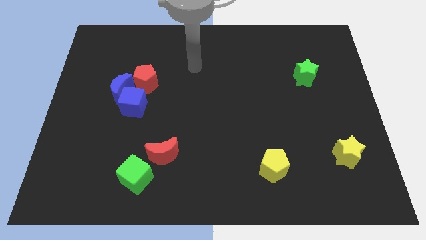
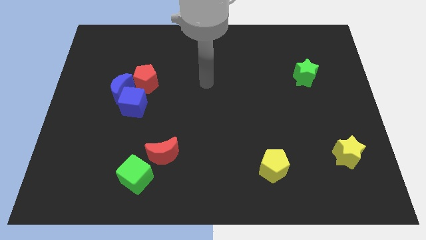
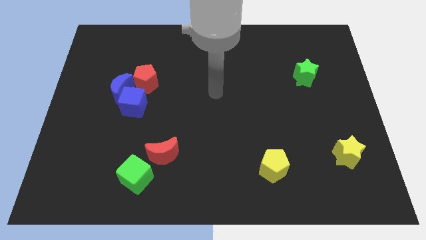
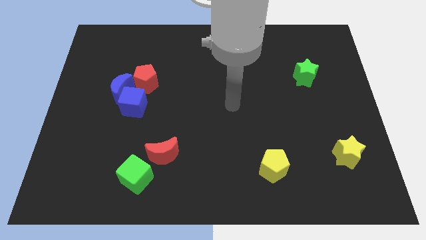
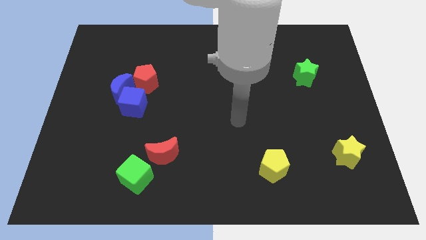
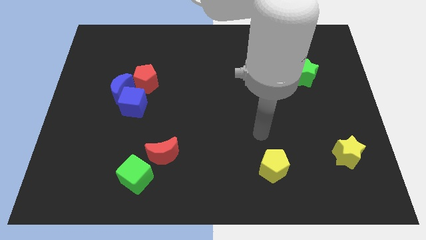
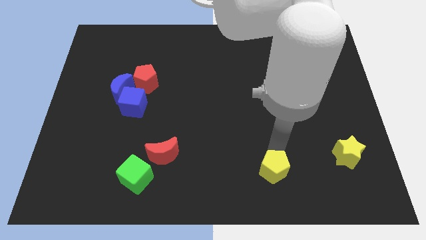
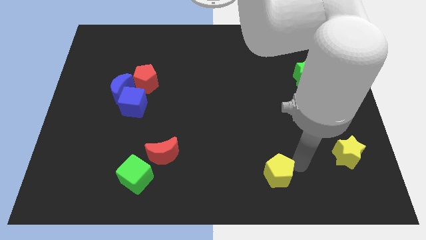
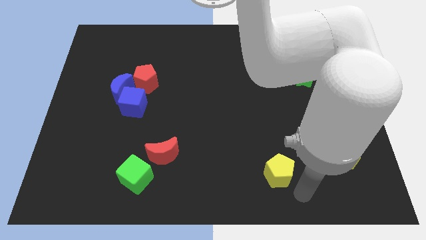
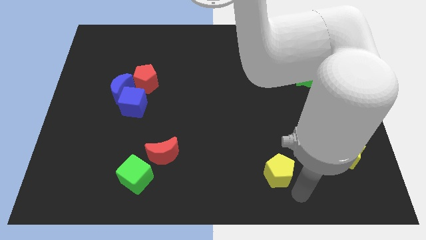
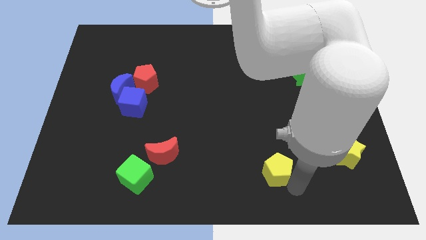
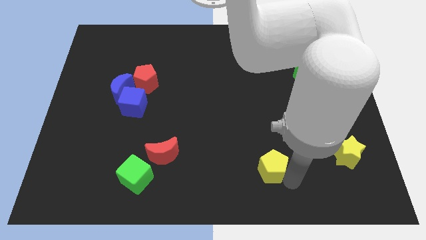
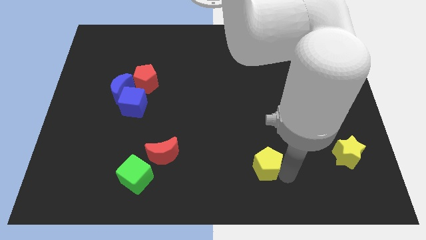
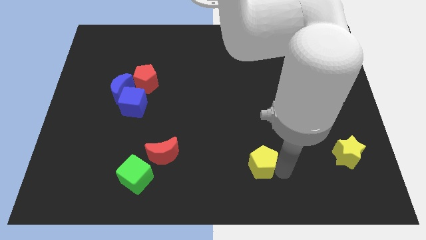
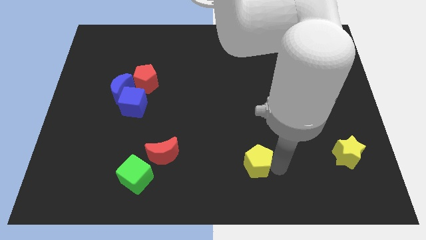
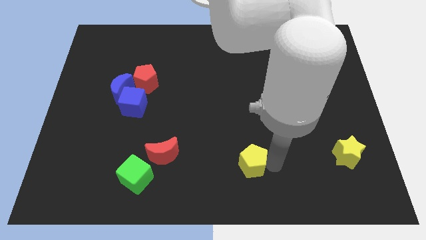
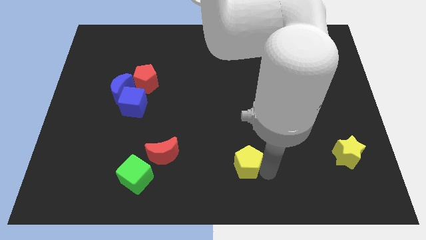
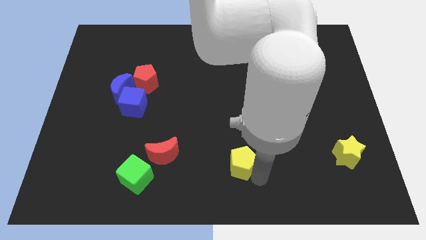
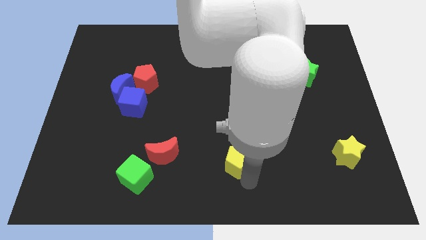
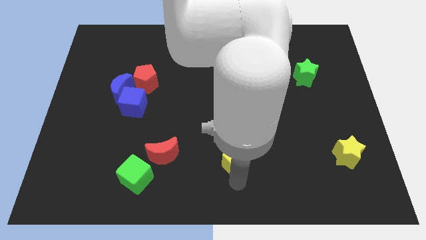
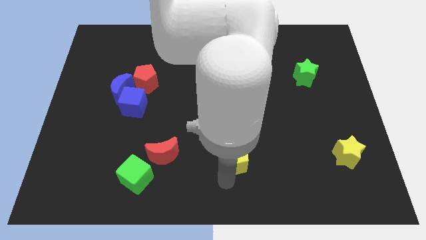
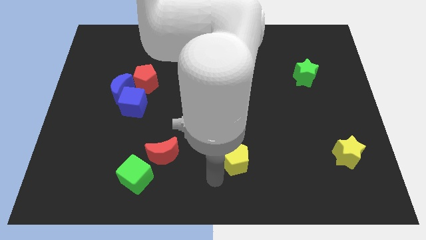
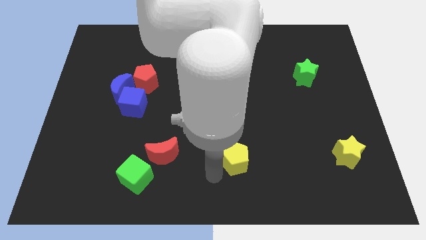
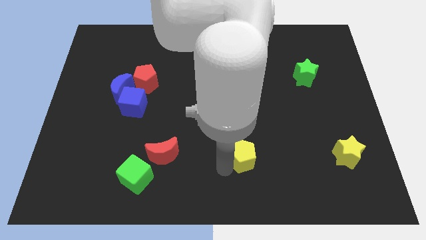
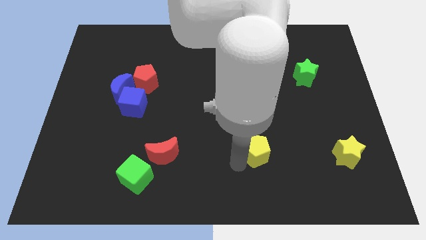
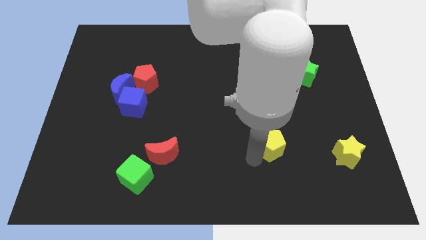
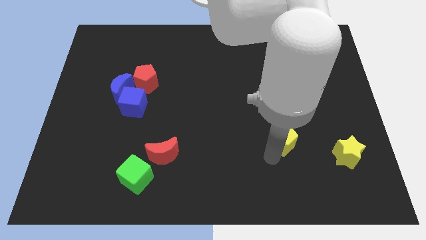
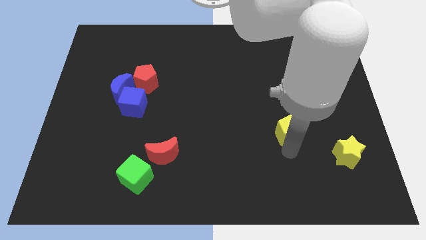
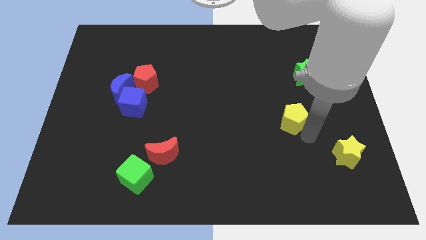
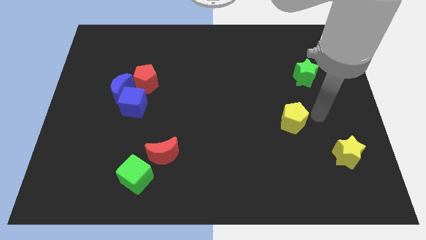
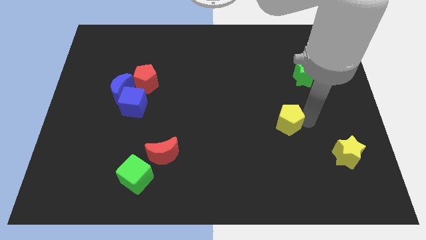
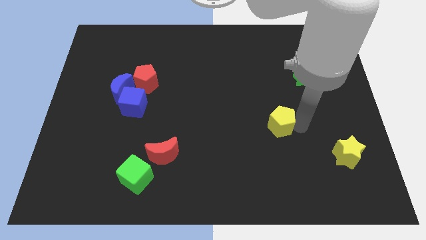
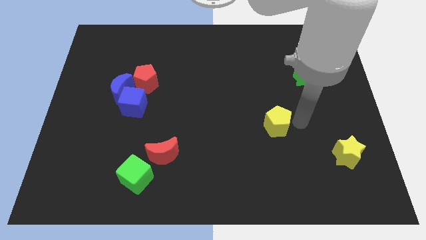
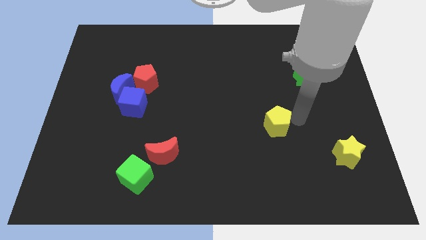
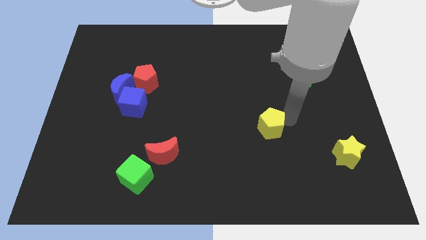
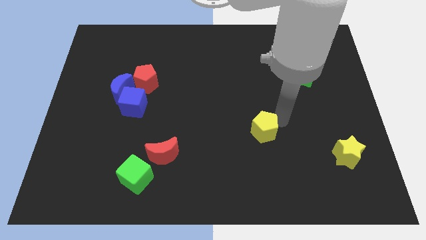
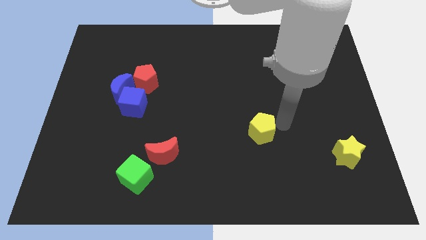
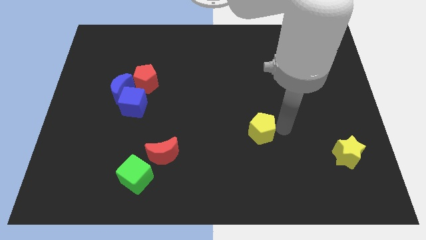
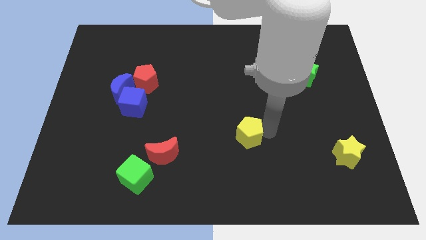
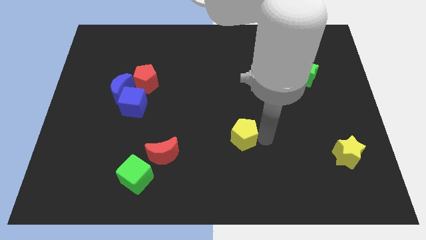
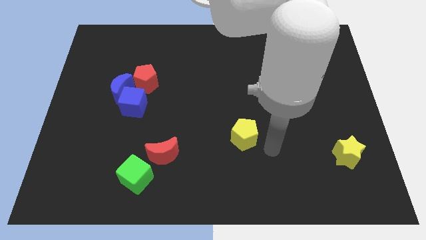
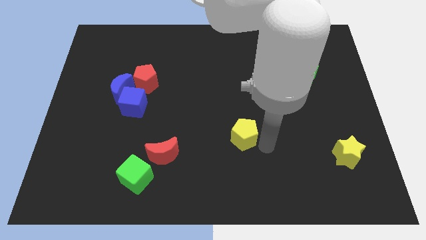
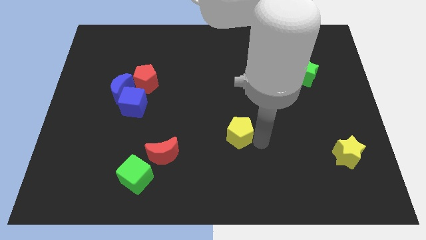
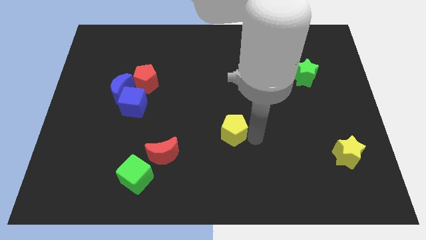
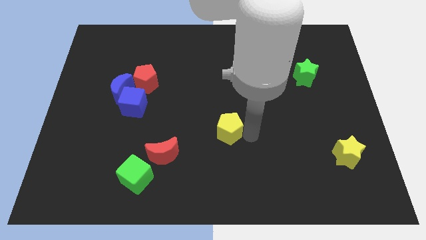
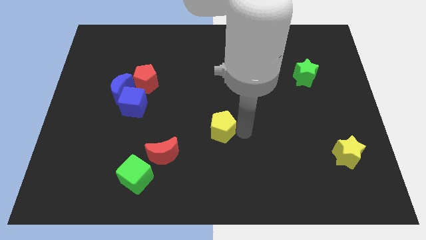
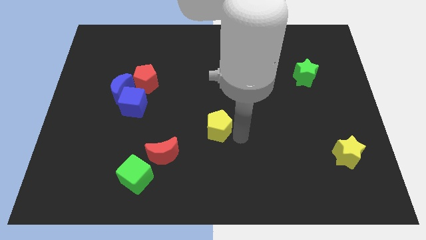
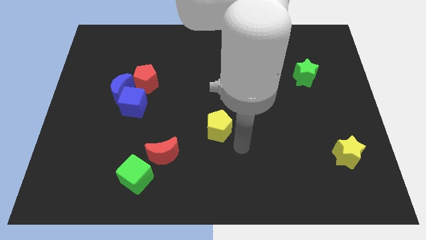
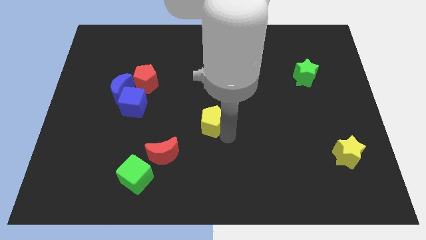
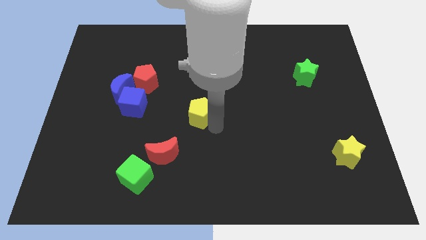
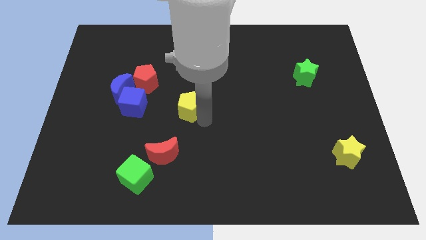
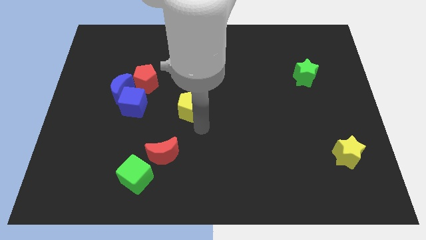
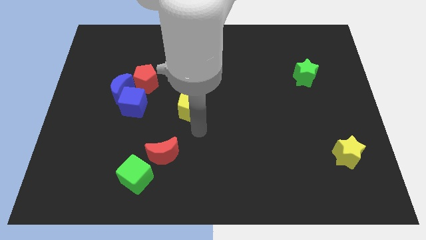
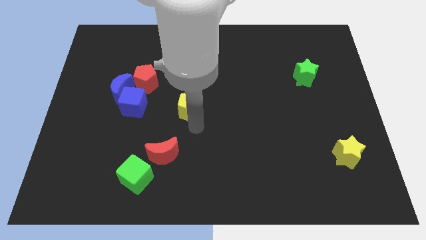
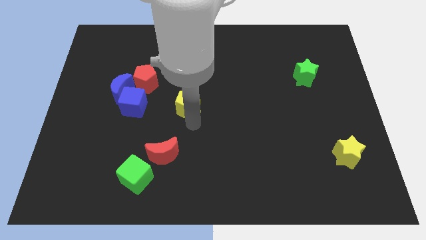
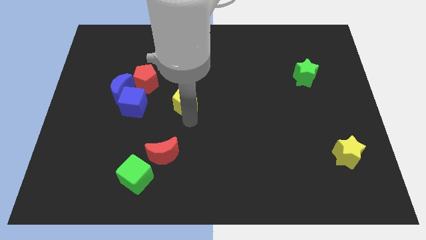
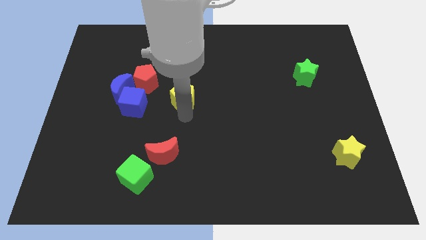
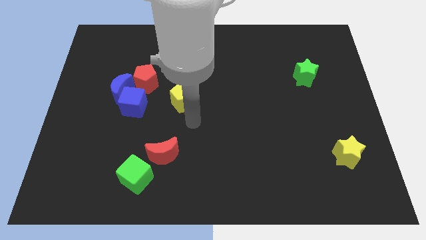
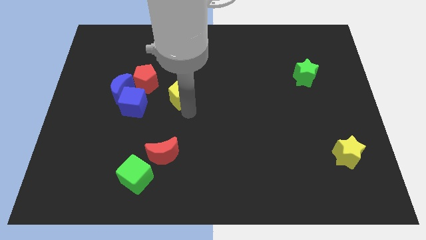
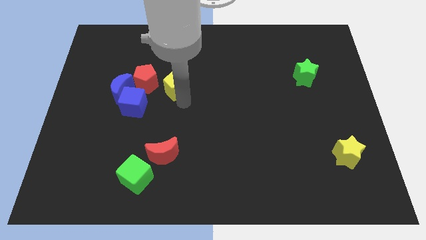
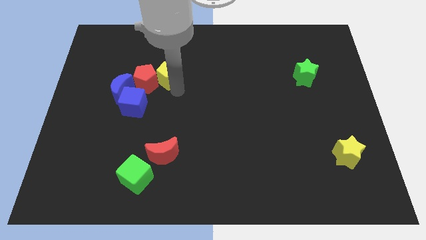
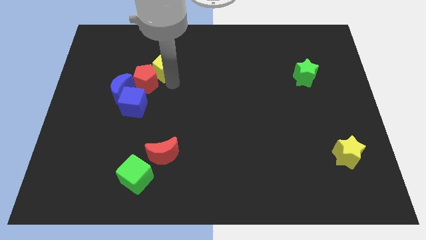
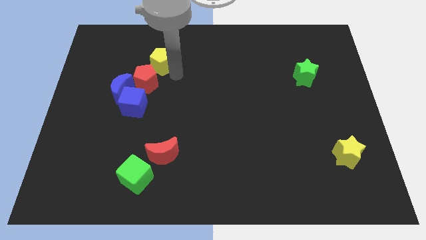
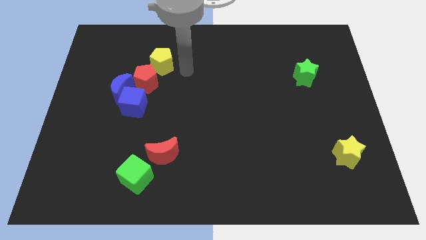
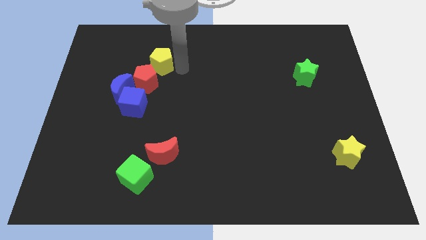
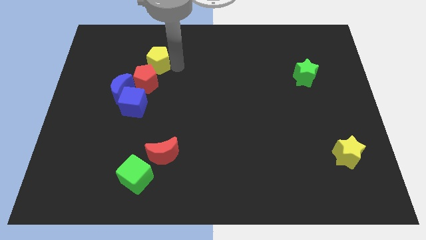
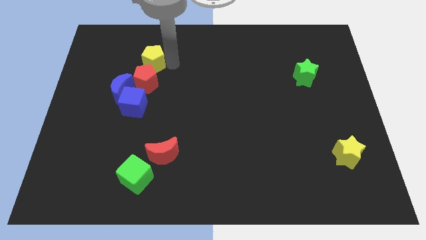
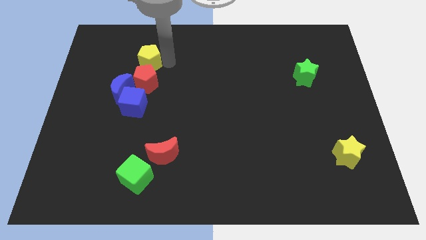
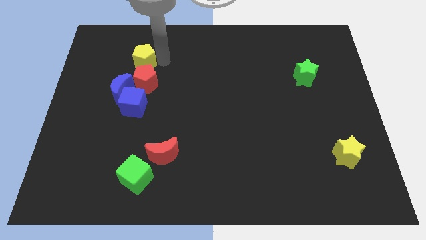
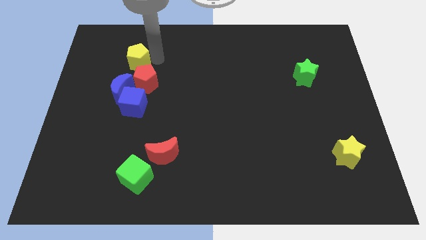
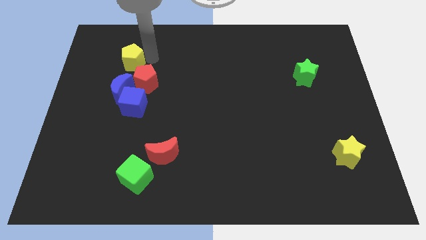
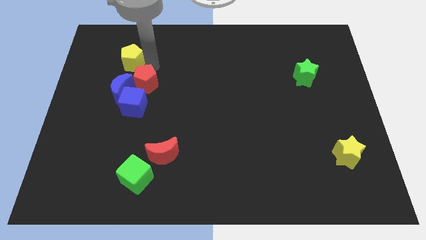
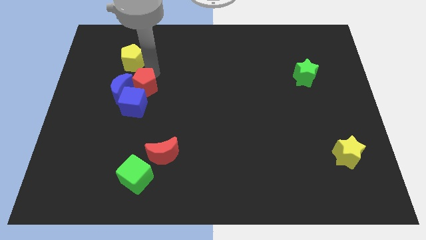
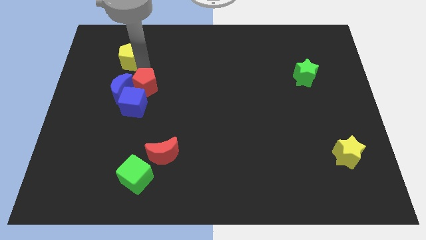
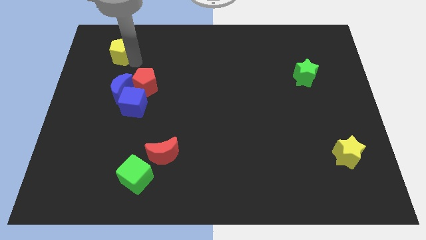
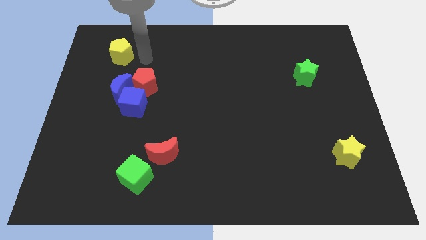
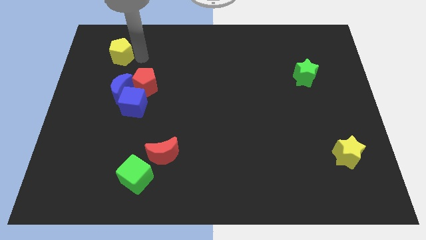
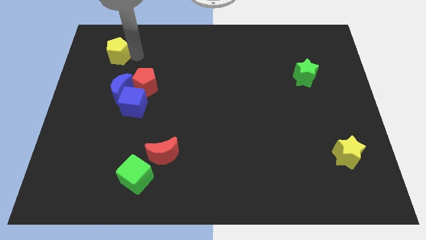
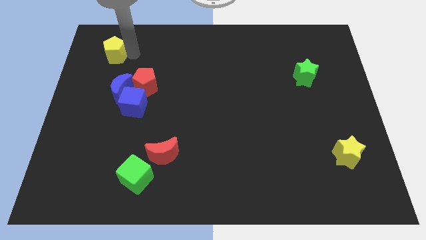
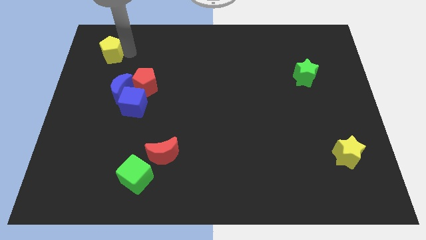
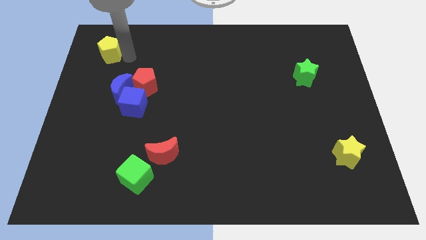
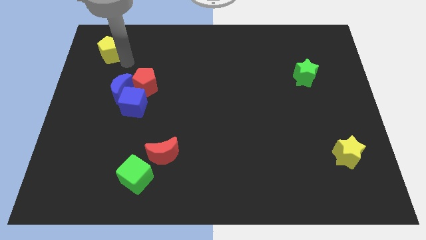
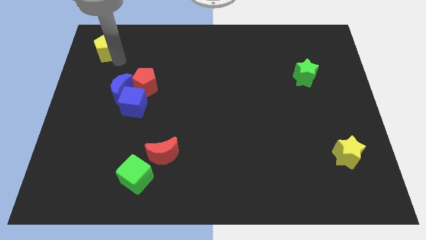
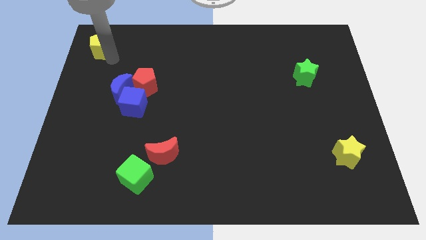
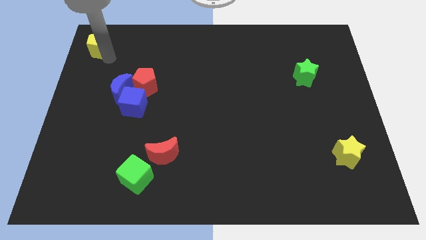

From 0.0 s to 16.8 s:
move the yellow pentagon to the upper left corner
